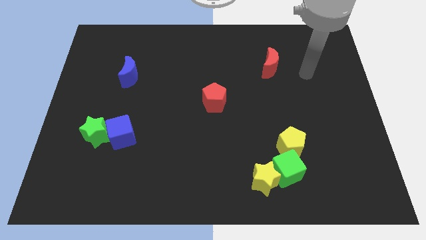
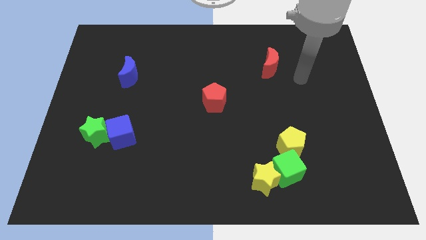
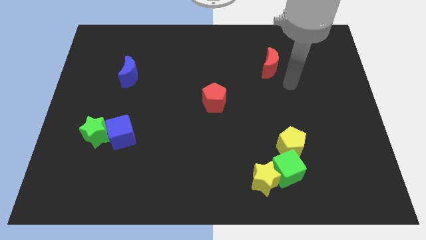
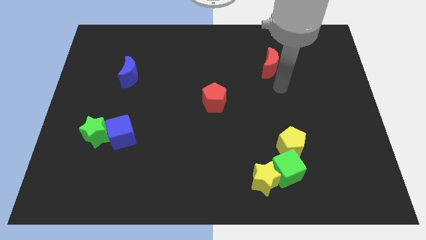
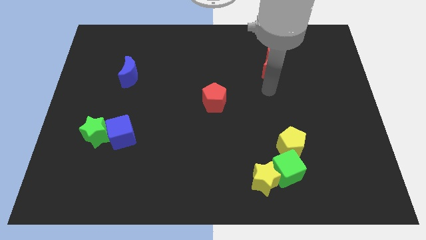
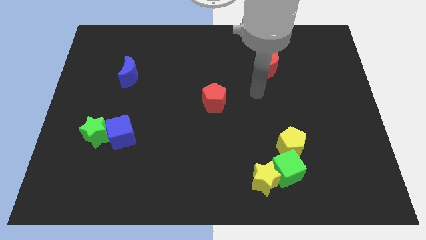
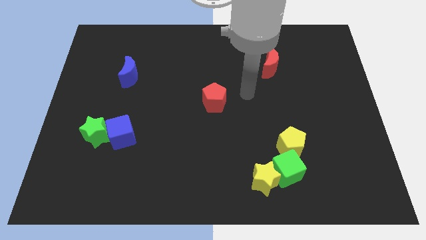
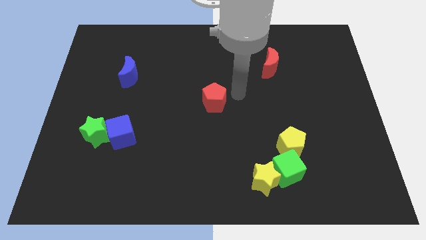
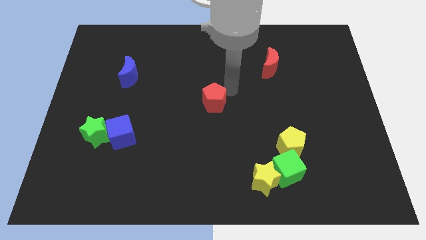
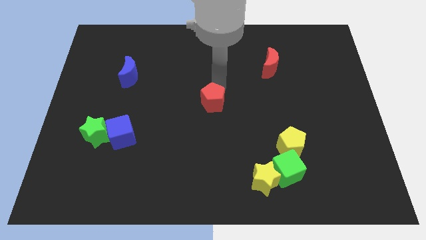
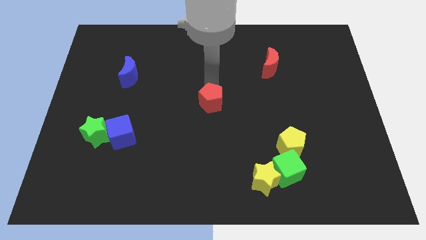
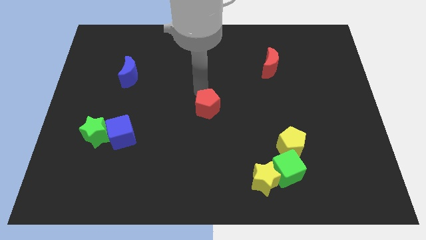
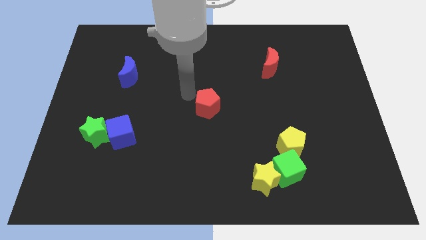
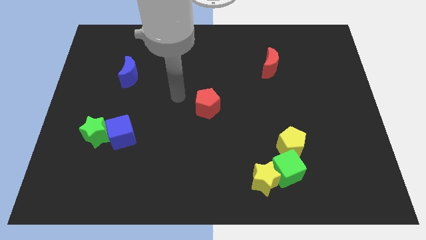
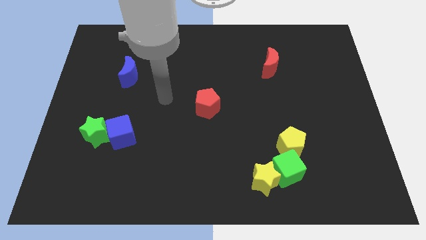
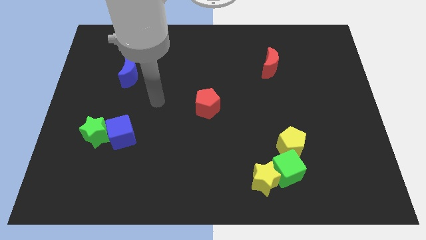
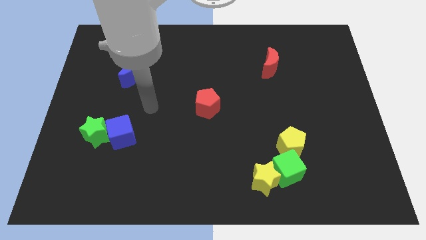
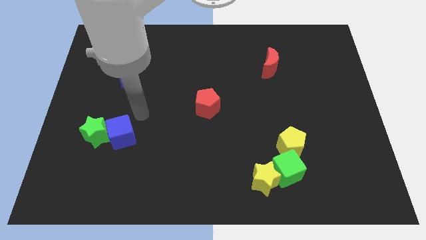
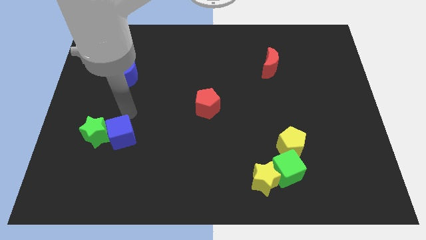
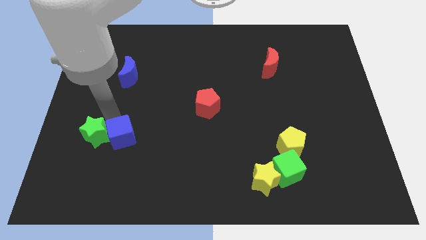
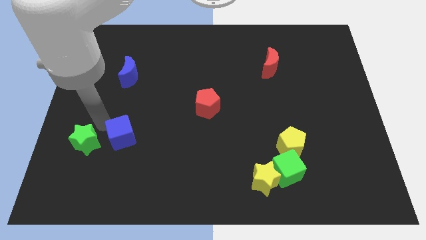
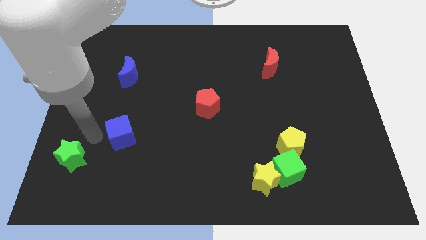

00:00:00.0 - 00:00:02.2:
pull the blue cube apart from the green star

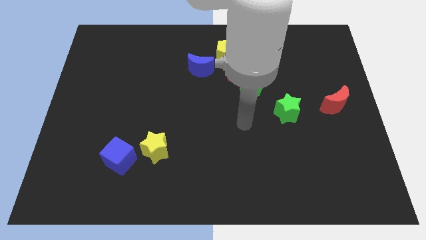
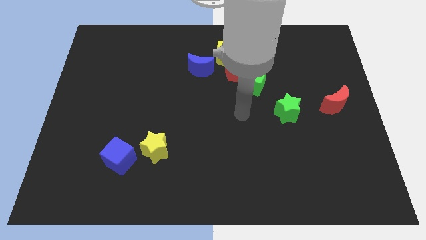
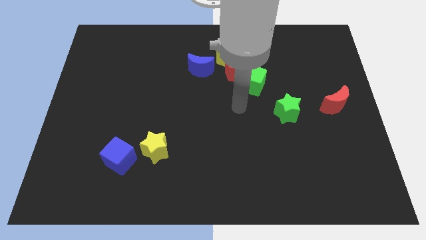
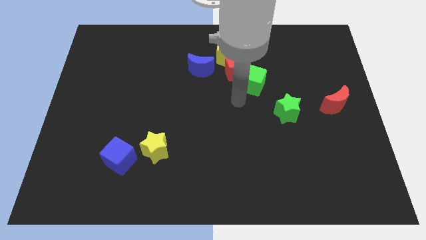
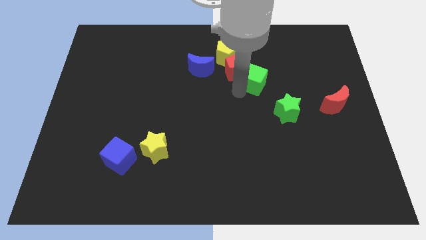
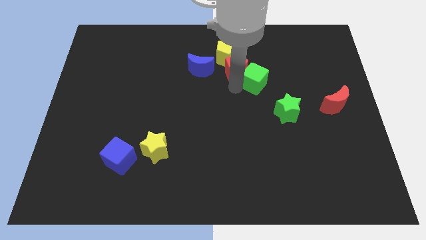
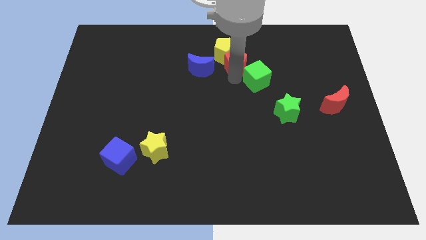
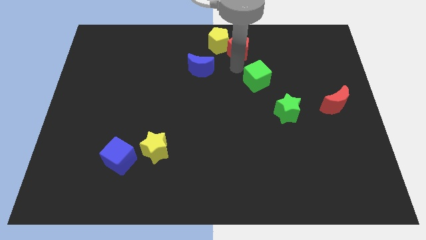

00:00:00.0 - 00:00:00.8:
separate the green cube from the red pentagon

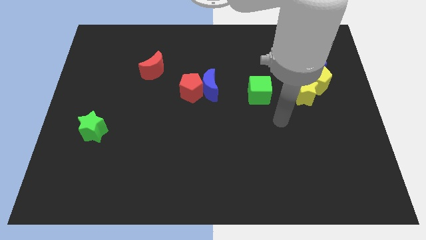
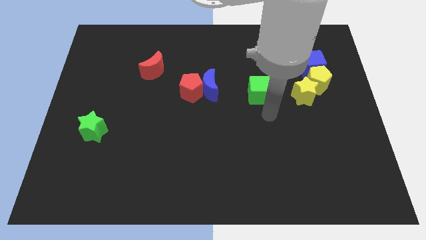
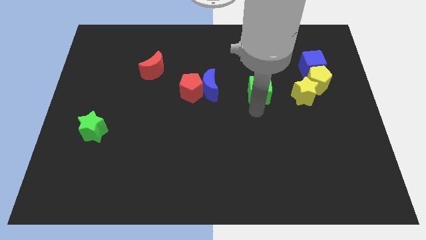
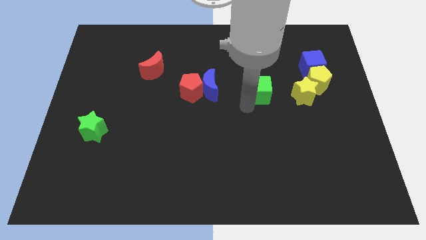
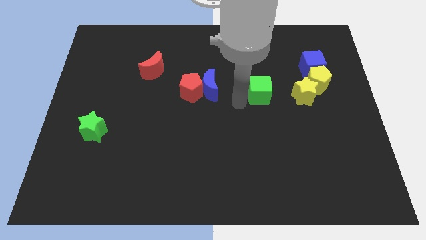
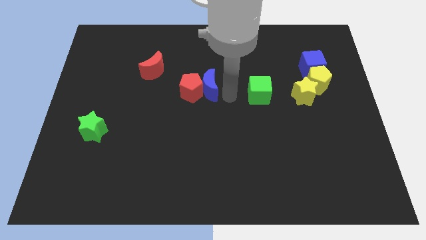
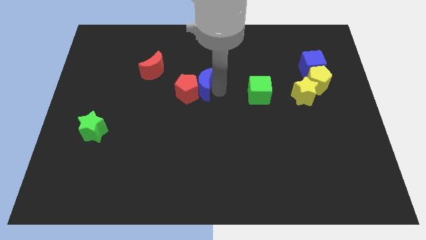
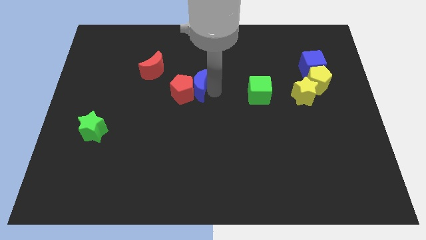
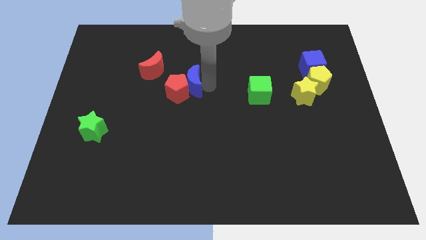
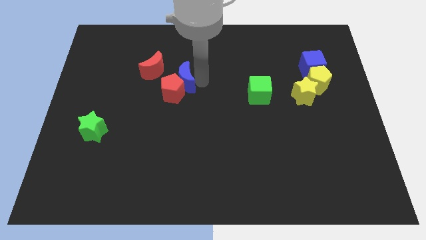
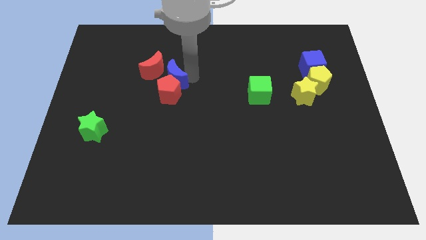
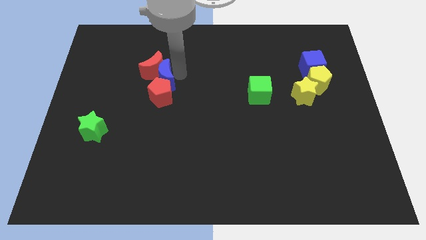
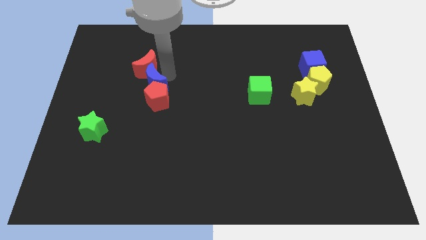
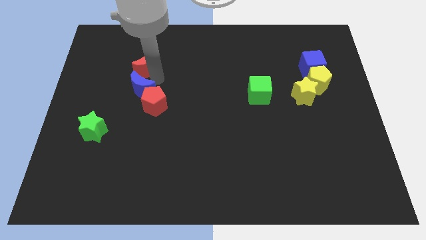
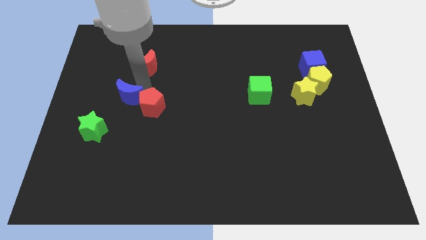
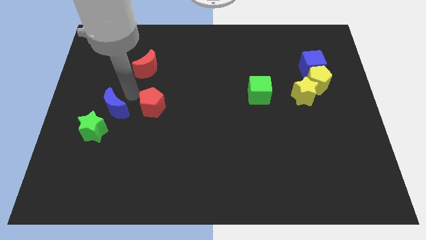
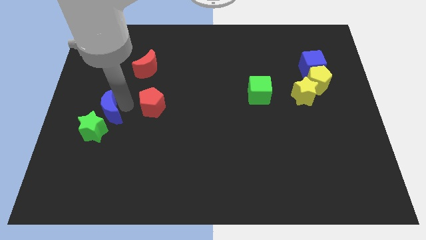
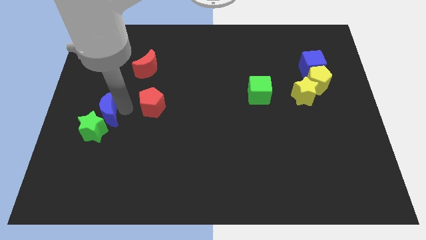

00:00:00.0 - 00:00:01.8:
separate the red pentagon from the blue moon

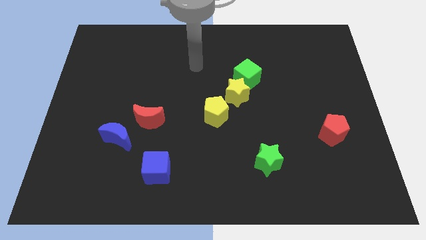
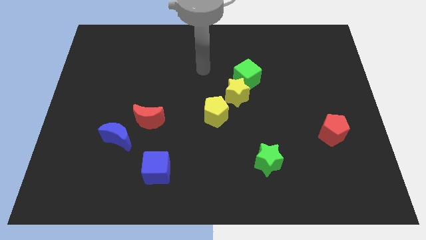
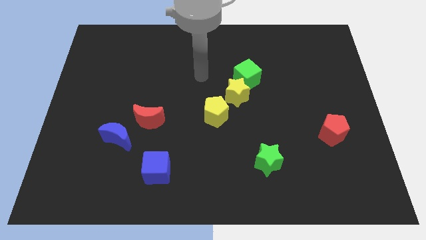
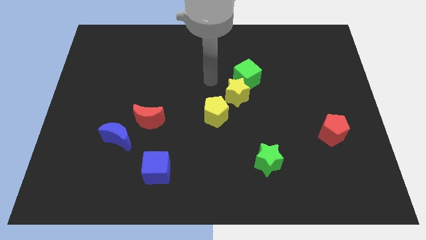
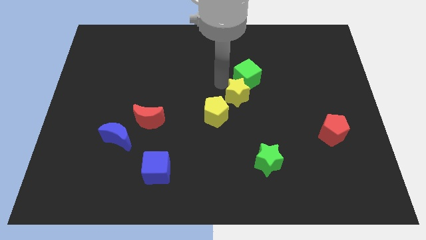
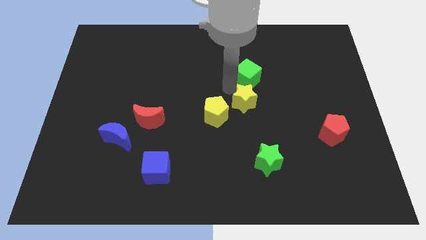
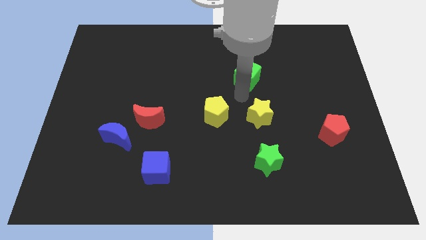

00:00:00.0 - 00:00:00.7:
move the green cube away from the yellow star

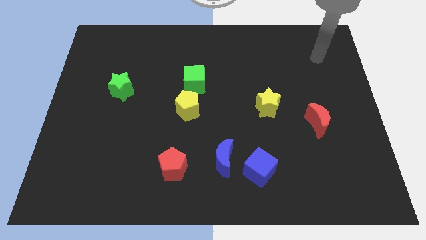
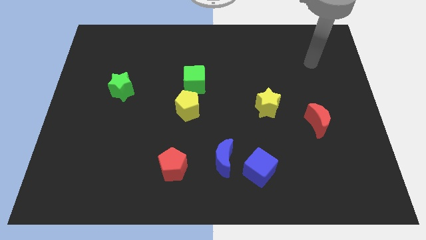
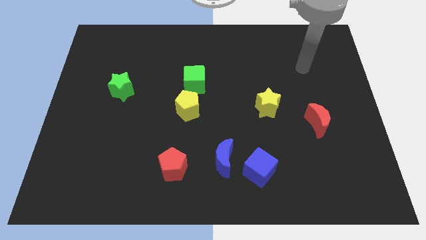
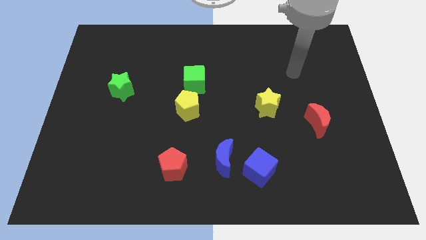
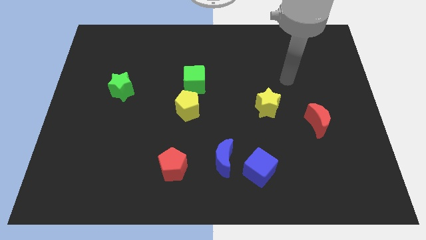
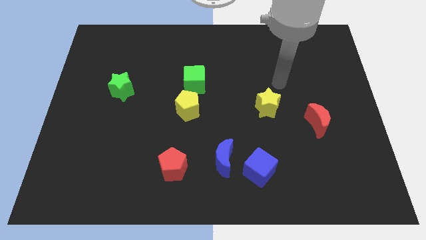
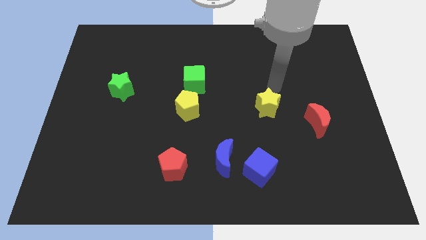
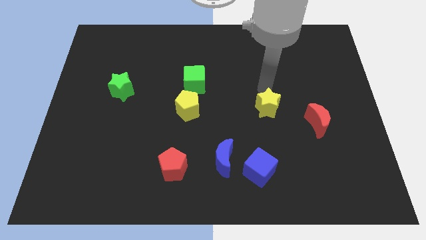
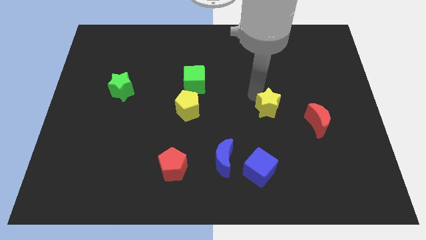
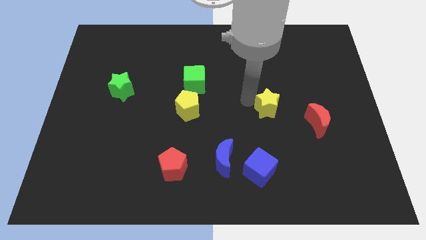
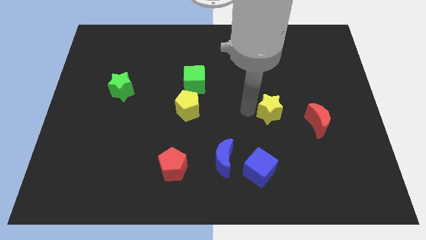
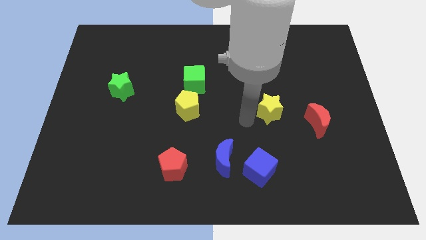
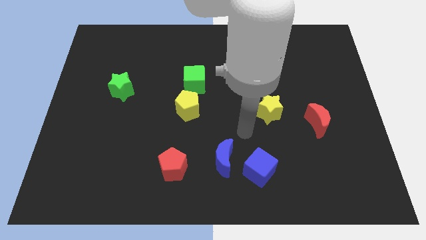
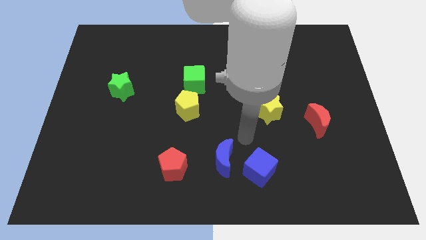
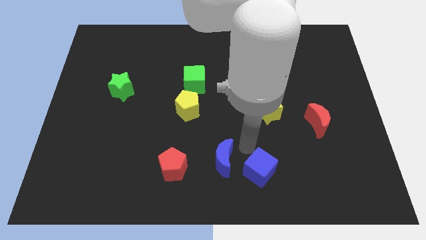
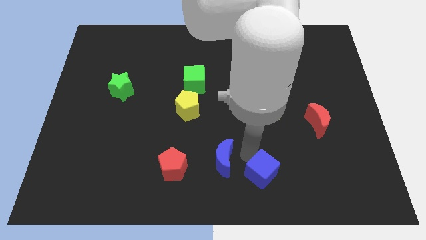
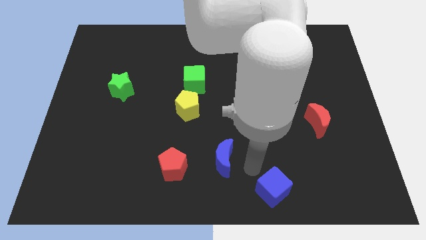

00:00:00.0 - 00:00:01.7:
move the blue moon away from the blue cube

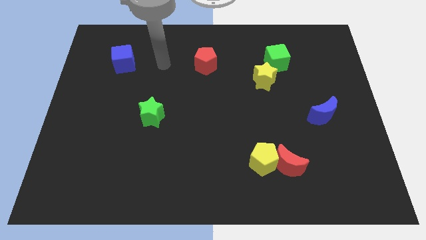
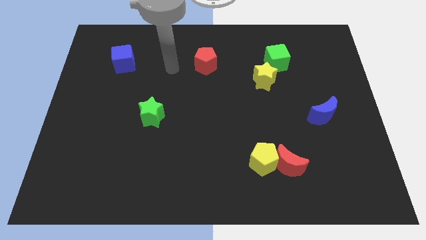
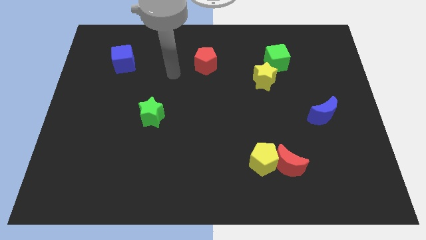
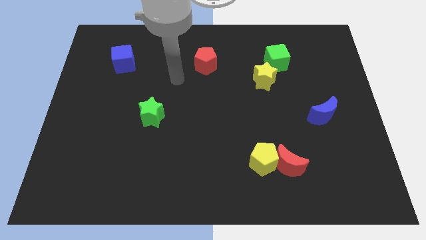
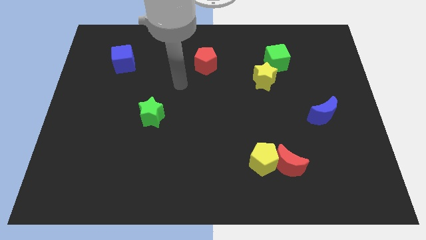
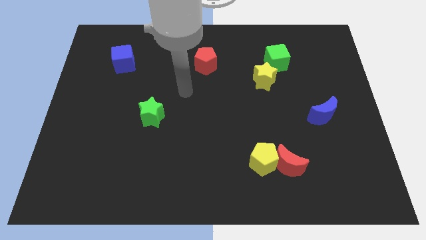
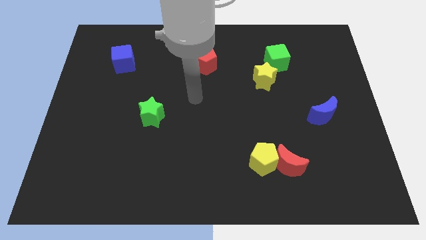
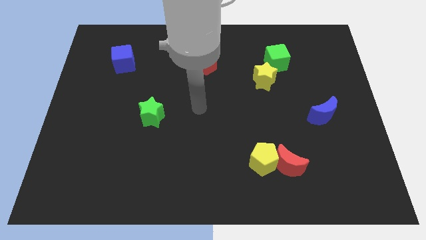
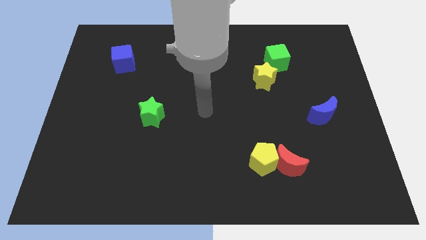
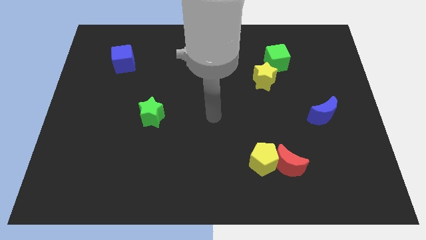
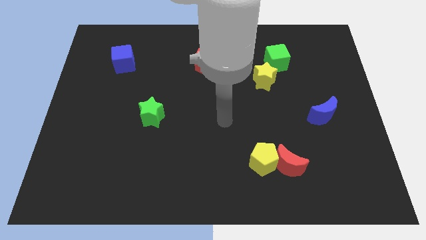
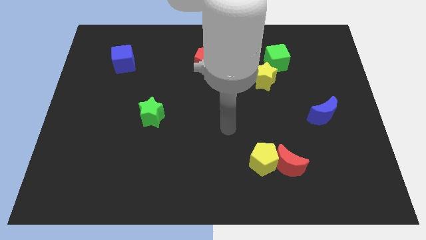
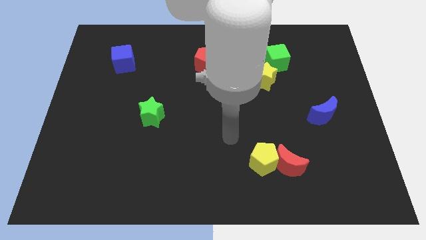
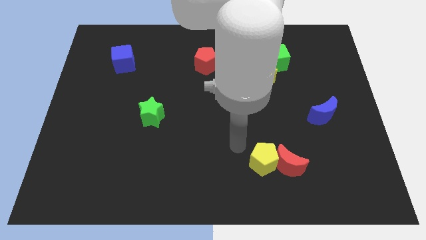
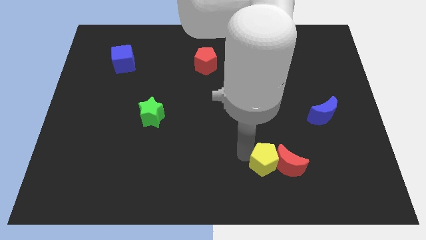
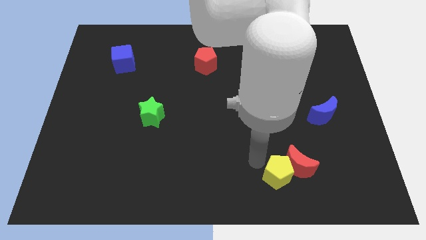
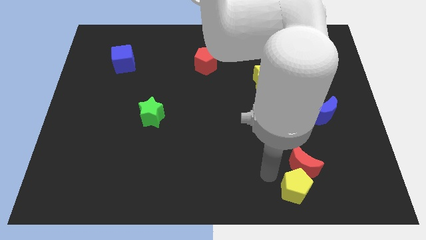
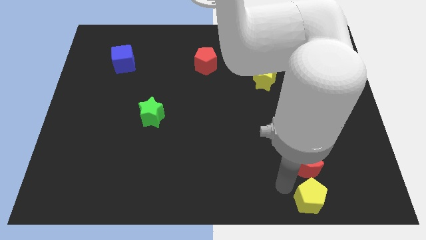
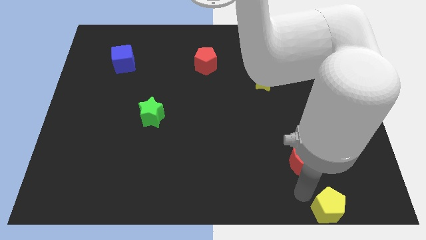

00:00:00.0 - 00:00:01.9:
pull the red moon apart from the yellow pentagon

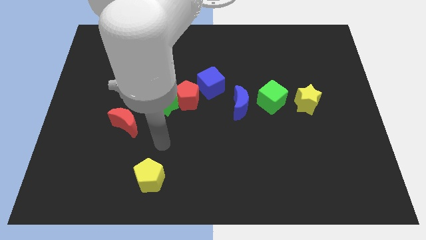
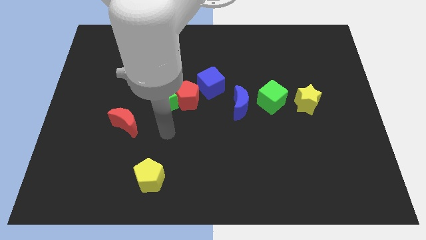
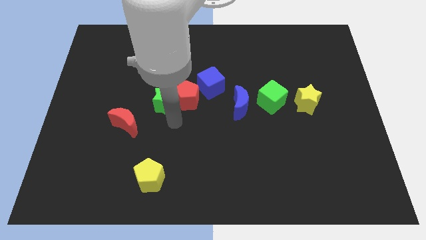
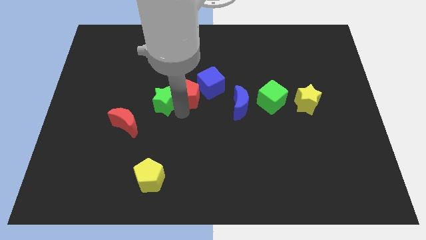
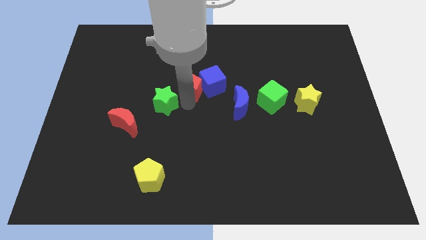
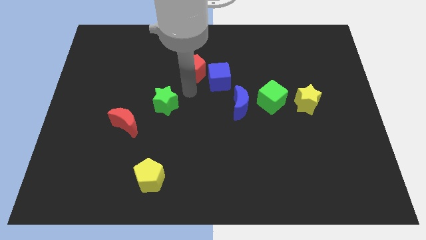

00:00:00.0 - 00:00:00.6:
move the green star away from the red pentagon
